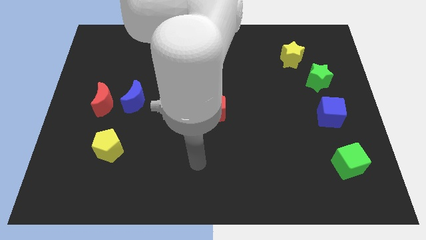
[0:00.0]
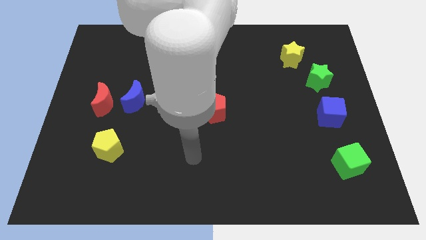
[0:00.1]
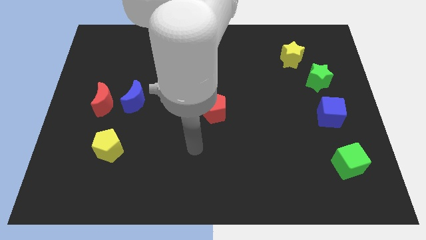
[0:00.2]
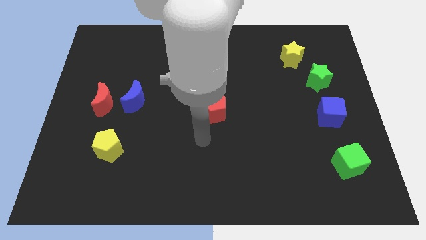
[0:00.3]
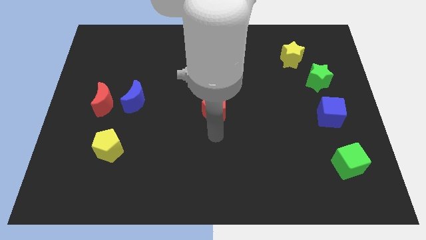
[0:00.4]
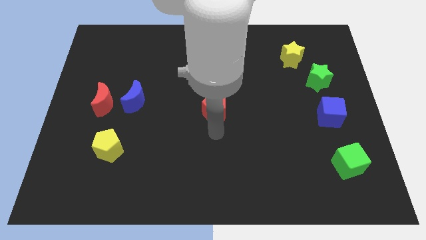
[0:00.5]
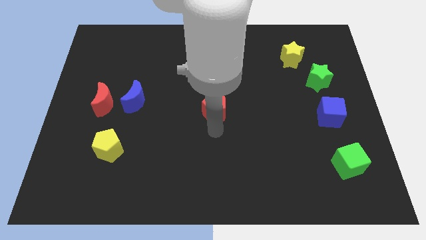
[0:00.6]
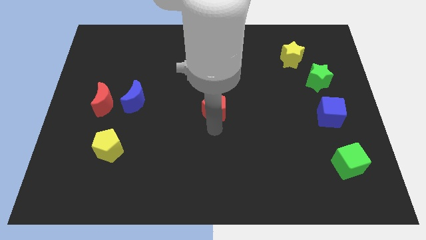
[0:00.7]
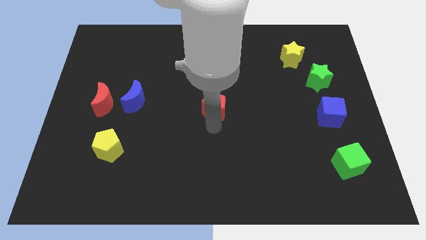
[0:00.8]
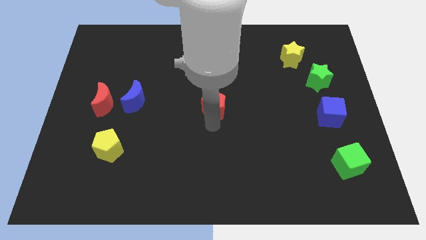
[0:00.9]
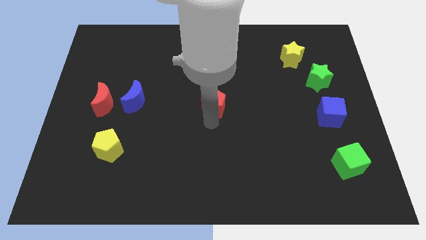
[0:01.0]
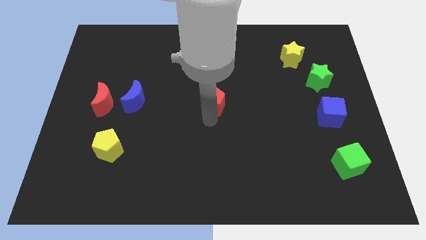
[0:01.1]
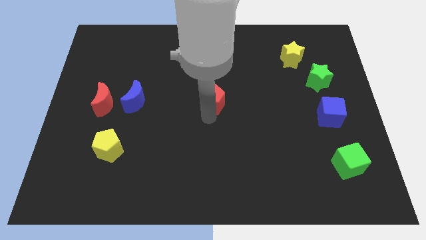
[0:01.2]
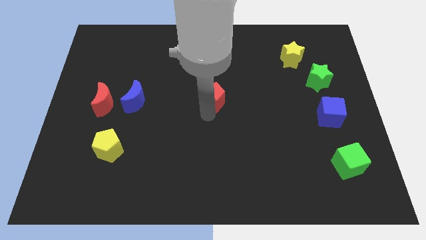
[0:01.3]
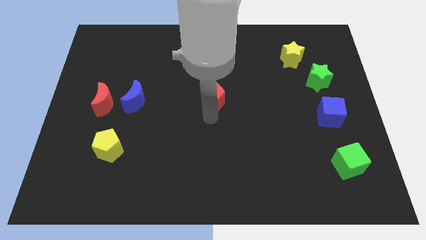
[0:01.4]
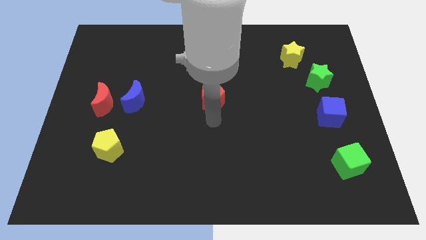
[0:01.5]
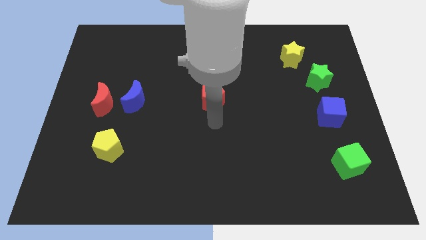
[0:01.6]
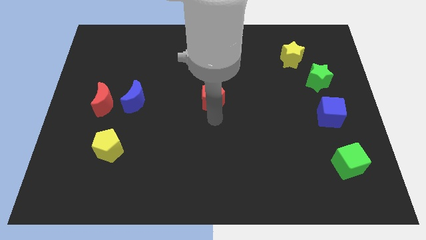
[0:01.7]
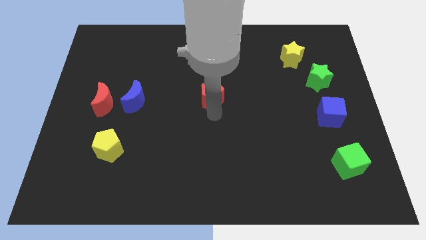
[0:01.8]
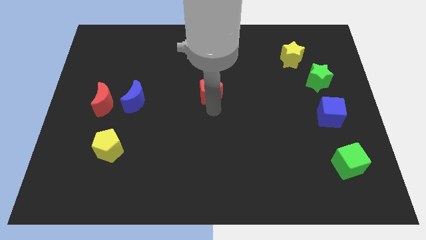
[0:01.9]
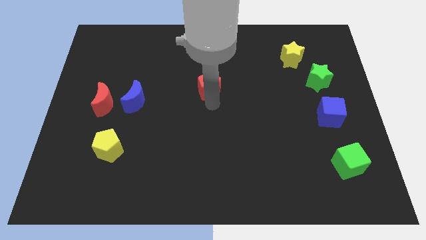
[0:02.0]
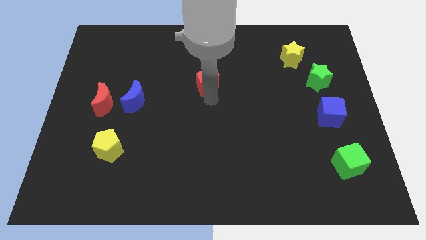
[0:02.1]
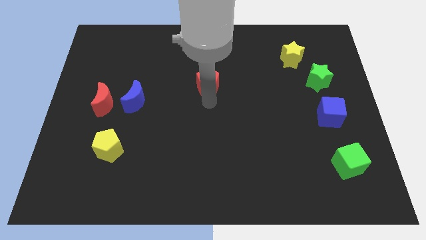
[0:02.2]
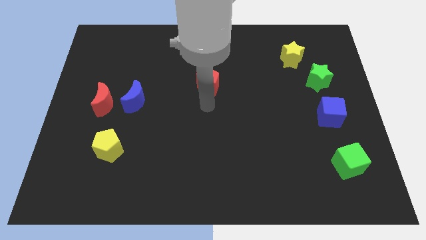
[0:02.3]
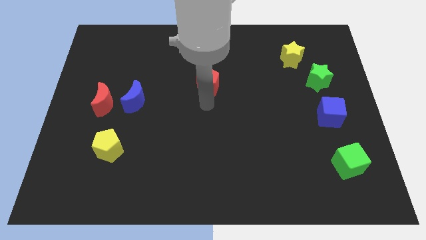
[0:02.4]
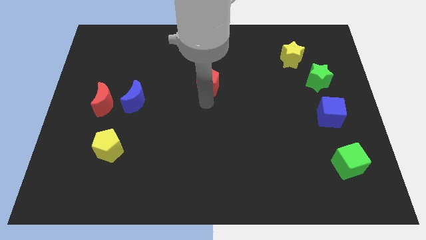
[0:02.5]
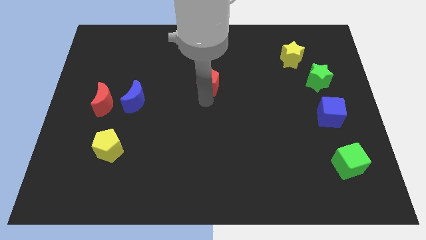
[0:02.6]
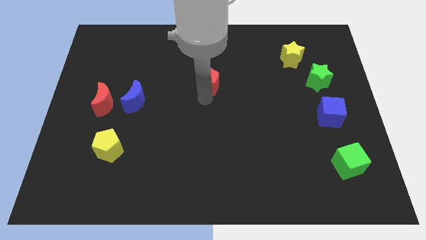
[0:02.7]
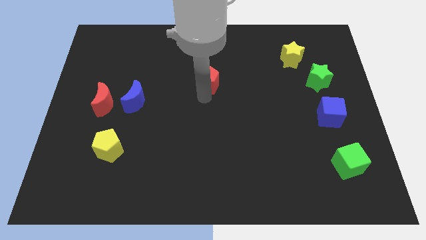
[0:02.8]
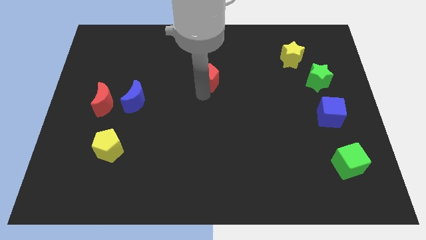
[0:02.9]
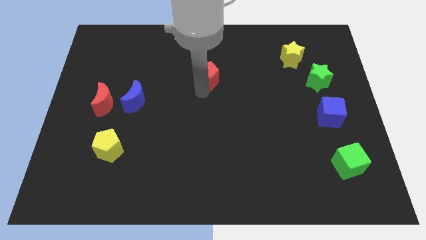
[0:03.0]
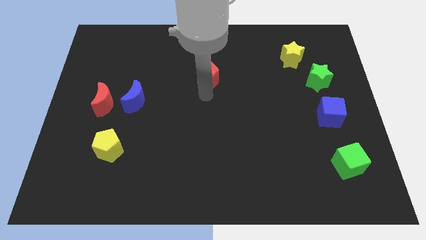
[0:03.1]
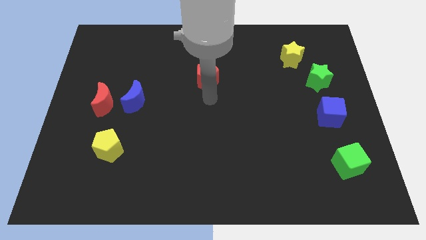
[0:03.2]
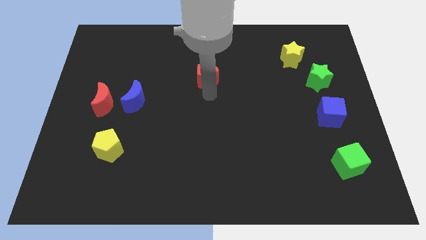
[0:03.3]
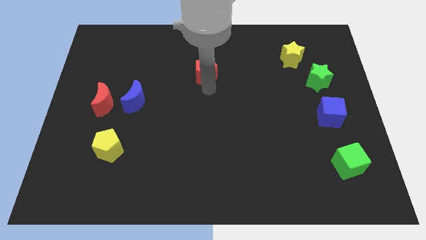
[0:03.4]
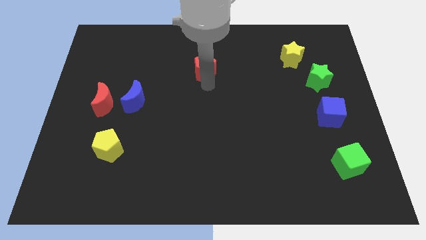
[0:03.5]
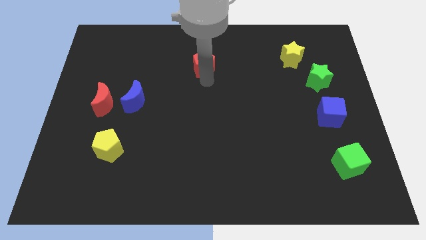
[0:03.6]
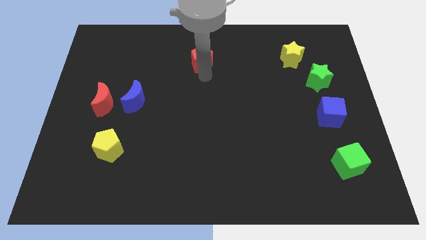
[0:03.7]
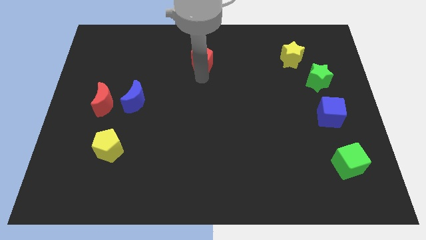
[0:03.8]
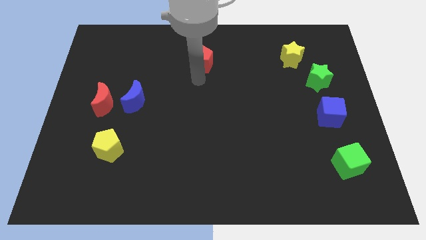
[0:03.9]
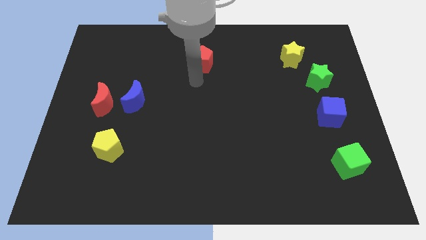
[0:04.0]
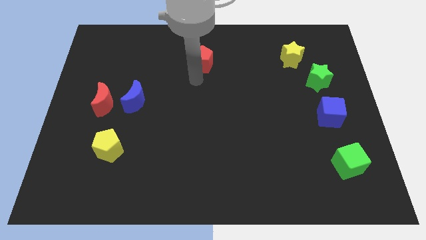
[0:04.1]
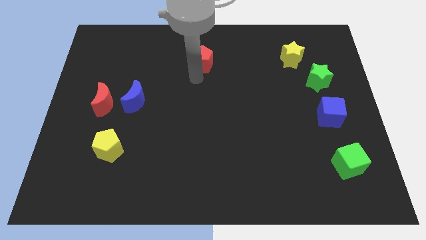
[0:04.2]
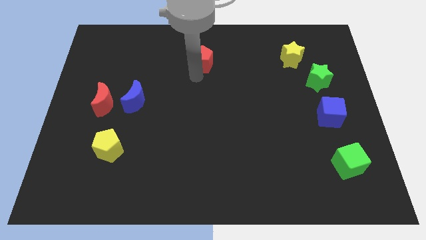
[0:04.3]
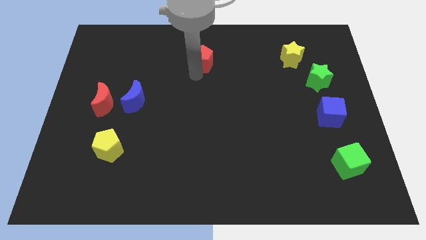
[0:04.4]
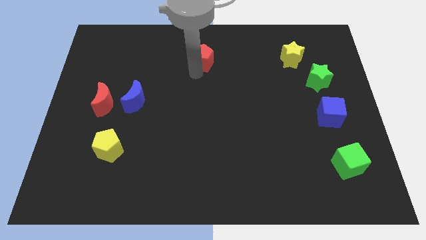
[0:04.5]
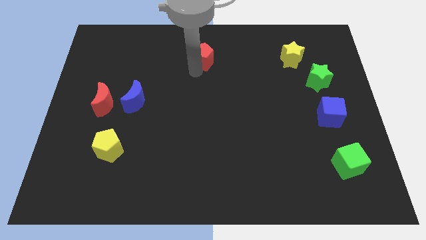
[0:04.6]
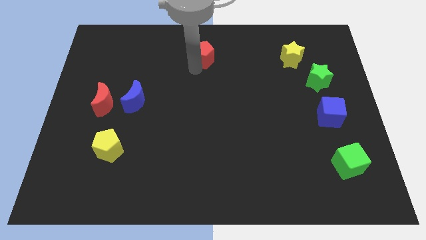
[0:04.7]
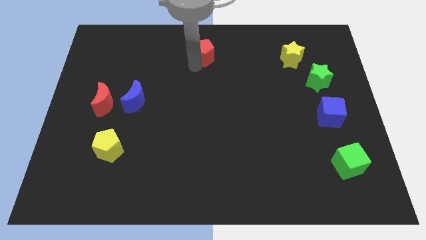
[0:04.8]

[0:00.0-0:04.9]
slide the red pentagon to the towards your base

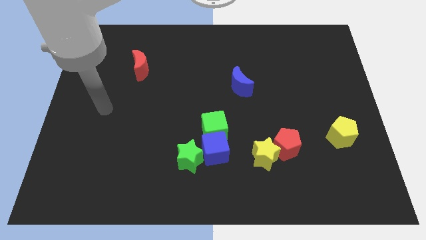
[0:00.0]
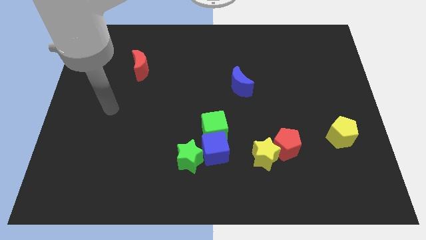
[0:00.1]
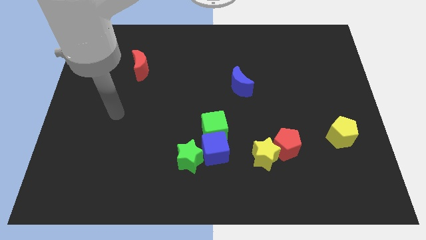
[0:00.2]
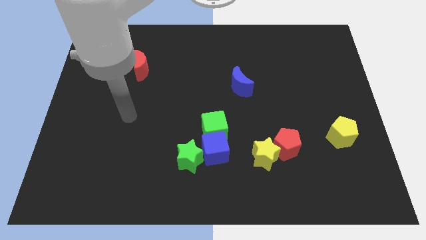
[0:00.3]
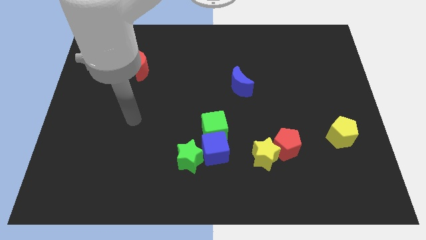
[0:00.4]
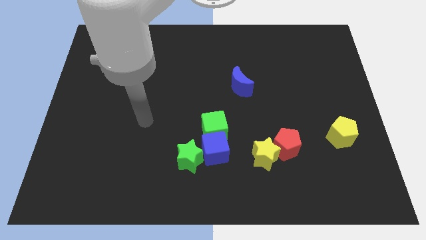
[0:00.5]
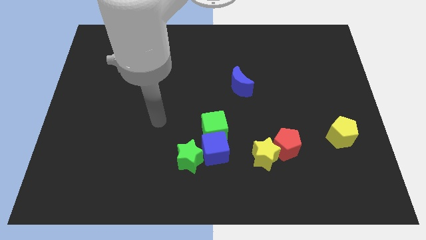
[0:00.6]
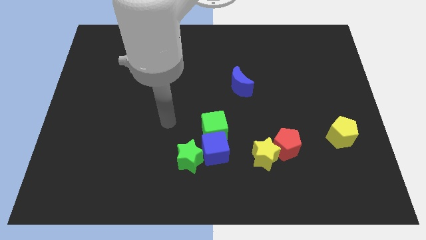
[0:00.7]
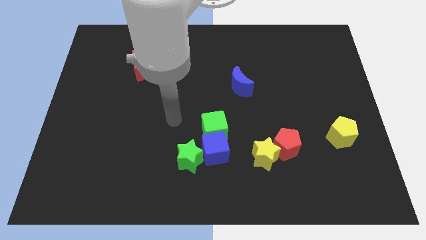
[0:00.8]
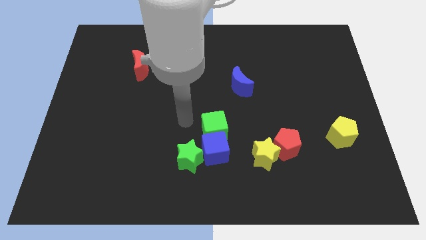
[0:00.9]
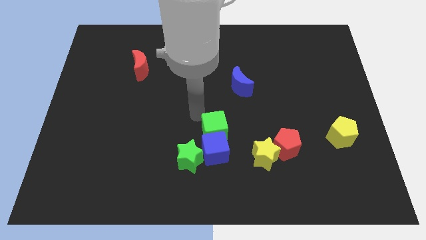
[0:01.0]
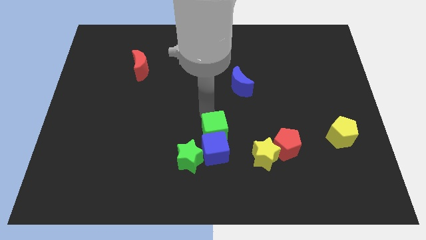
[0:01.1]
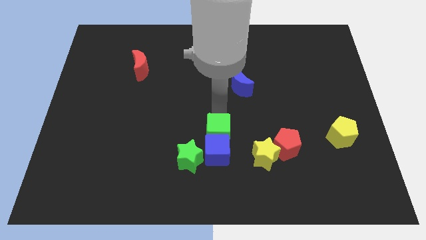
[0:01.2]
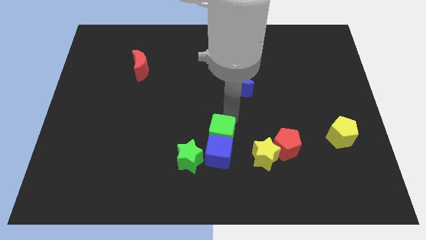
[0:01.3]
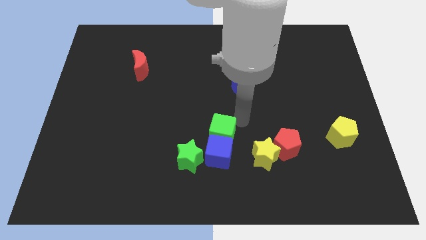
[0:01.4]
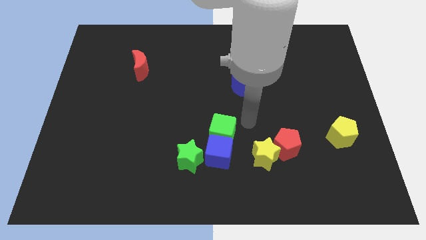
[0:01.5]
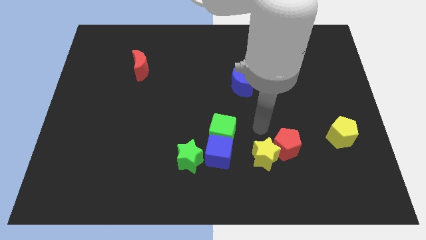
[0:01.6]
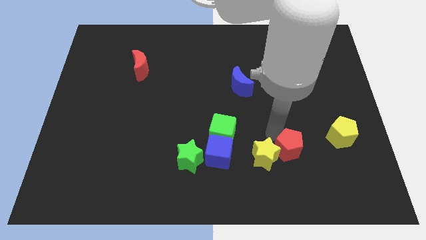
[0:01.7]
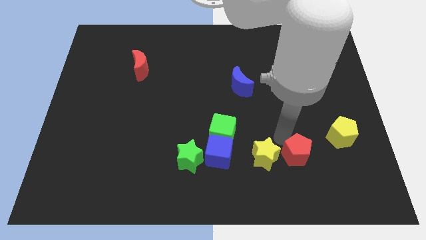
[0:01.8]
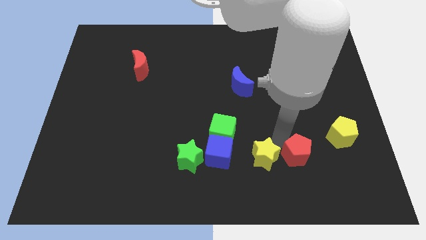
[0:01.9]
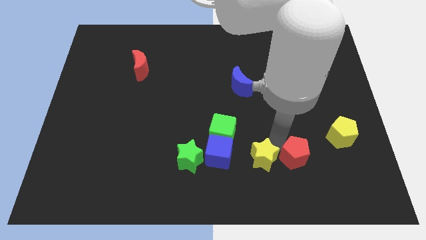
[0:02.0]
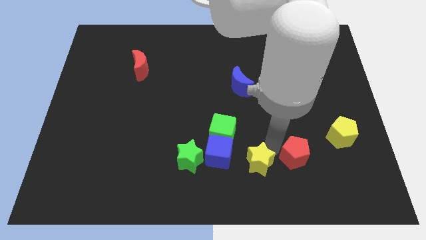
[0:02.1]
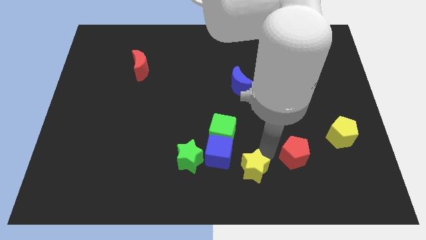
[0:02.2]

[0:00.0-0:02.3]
slide the yellow star to the bottom
